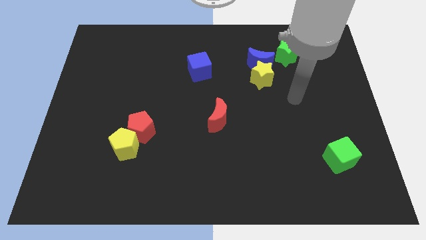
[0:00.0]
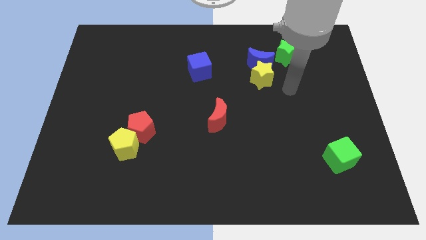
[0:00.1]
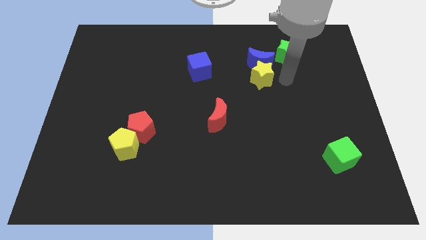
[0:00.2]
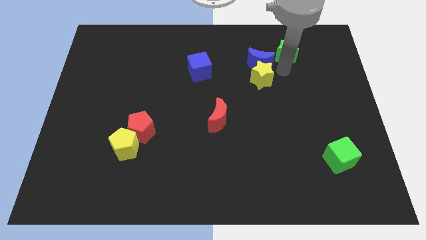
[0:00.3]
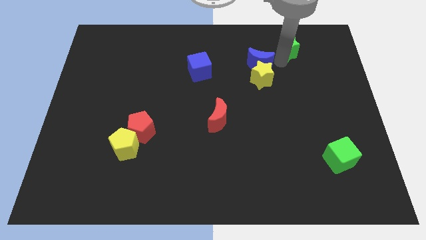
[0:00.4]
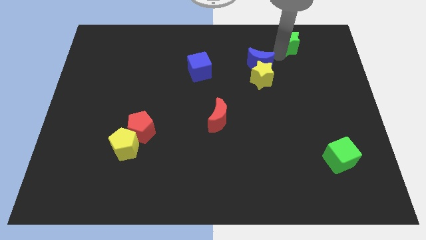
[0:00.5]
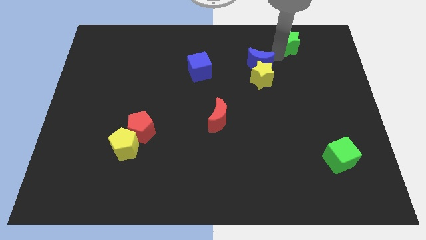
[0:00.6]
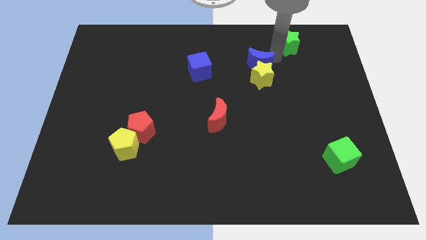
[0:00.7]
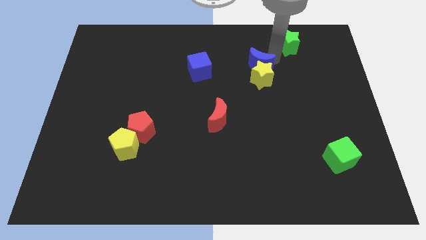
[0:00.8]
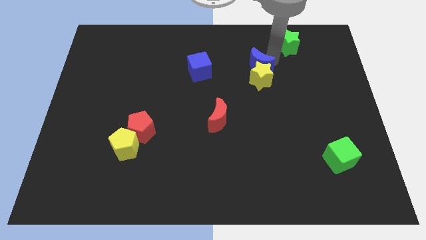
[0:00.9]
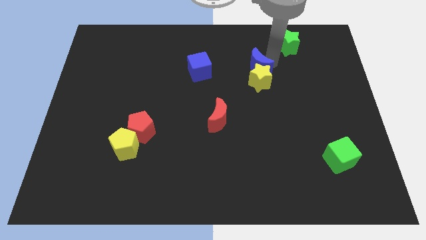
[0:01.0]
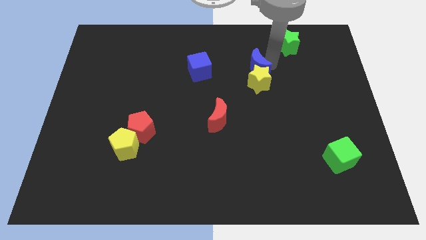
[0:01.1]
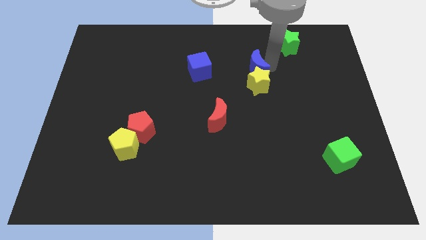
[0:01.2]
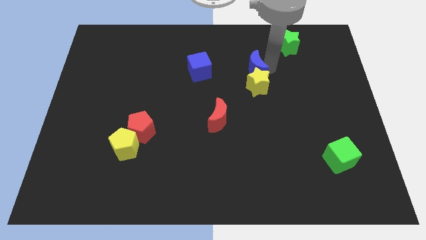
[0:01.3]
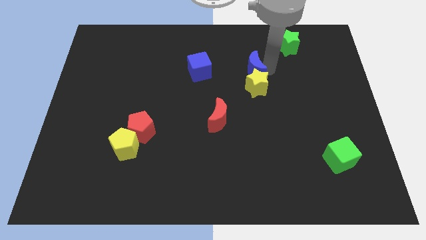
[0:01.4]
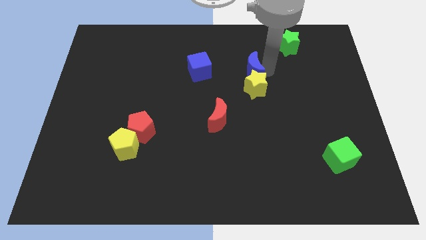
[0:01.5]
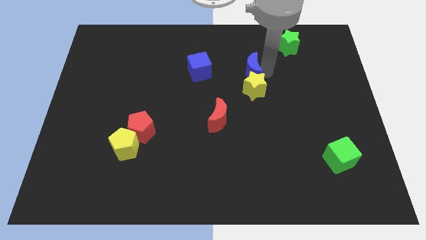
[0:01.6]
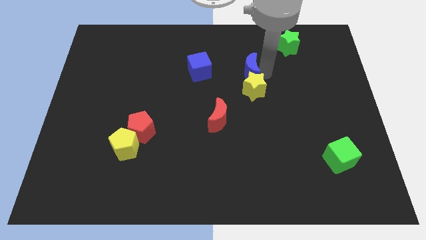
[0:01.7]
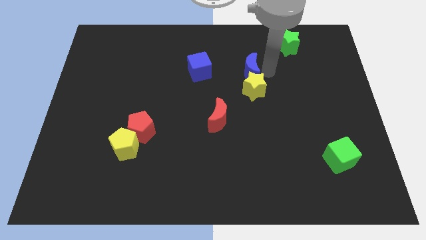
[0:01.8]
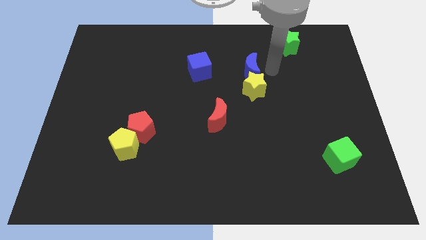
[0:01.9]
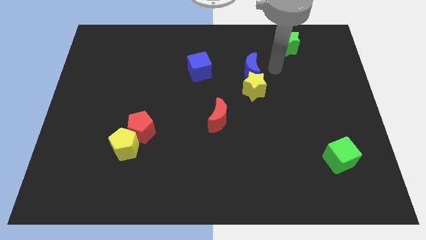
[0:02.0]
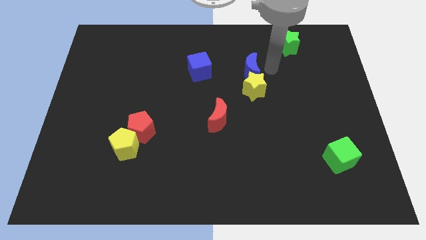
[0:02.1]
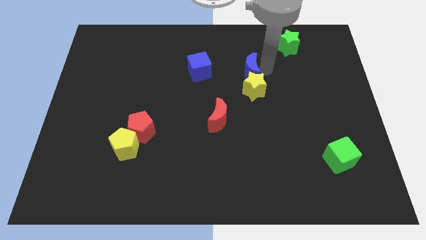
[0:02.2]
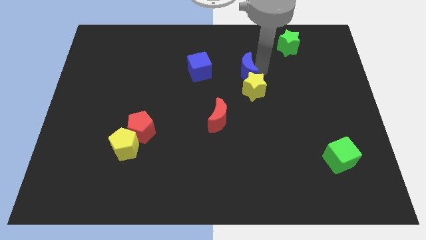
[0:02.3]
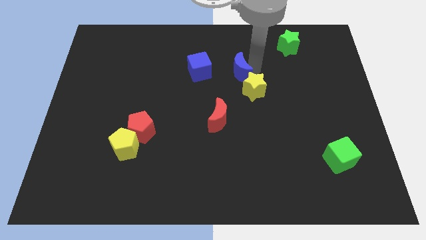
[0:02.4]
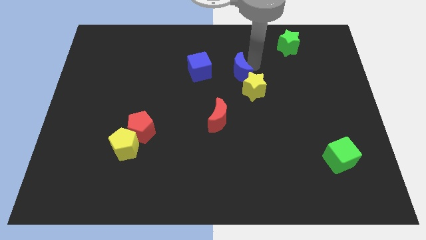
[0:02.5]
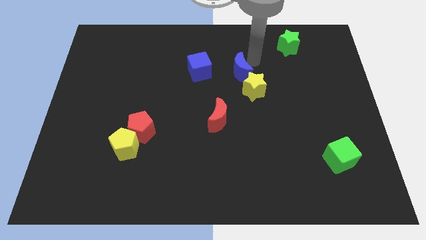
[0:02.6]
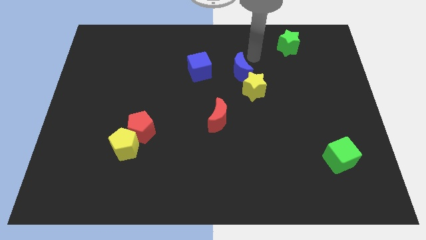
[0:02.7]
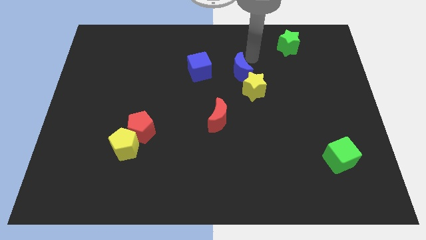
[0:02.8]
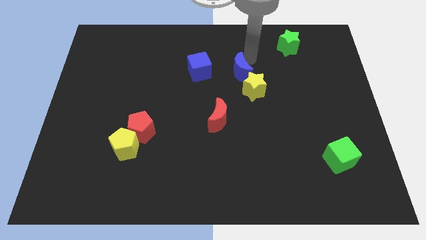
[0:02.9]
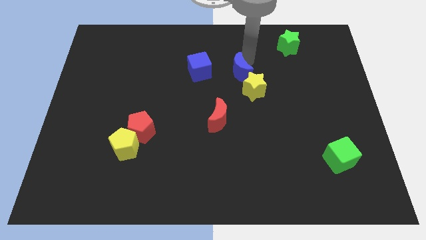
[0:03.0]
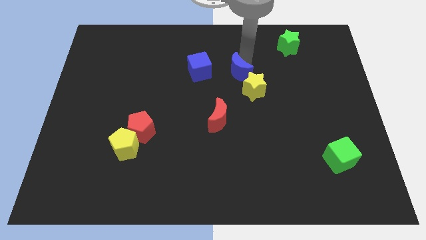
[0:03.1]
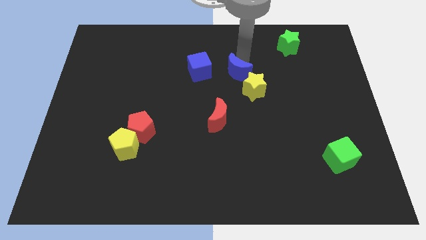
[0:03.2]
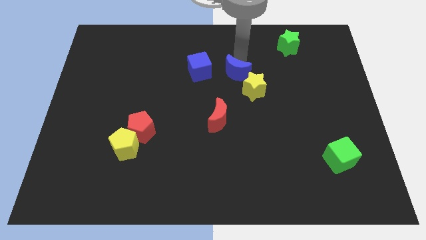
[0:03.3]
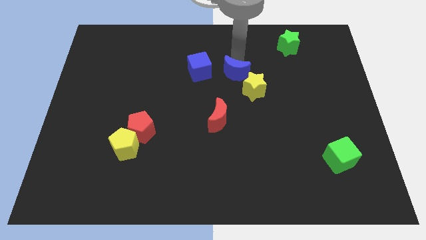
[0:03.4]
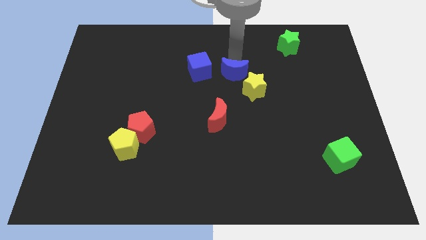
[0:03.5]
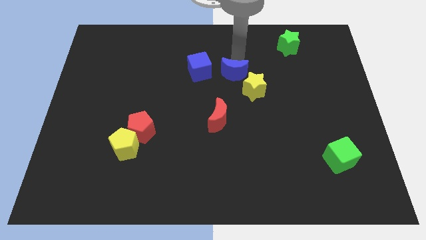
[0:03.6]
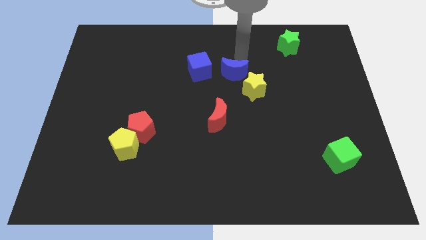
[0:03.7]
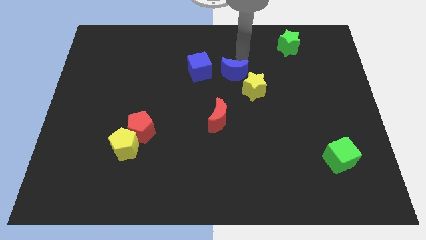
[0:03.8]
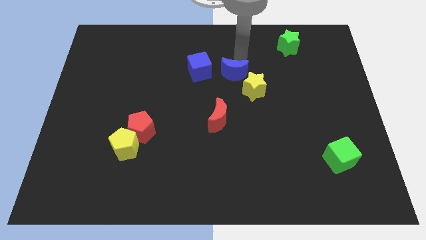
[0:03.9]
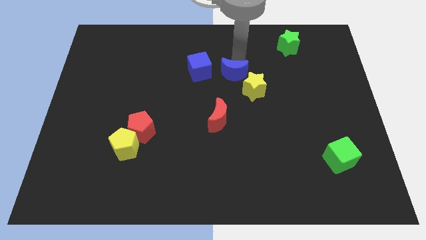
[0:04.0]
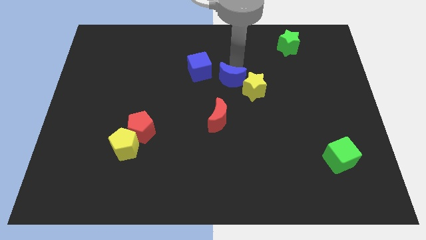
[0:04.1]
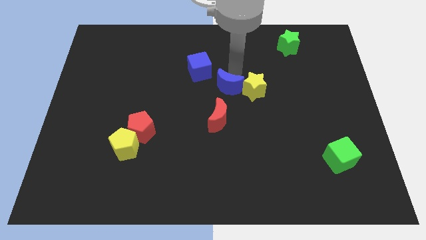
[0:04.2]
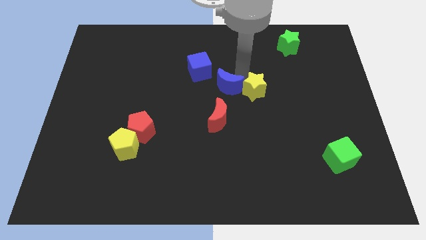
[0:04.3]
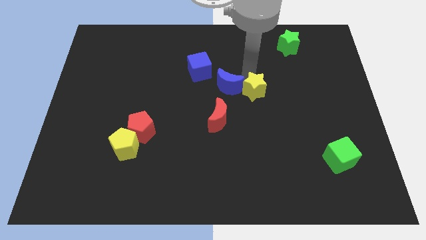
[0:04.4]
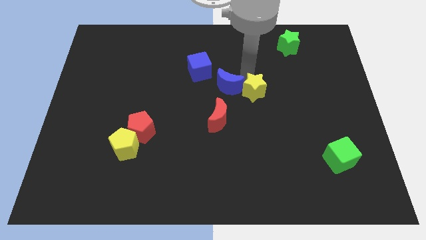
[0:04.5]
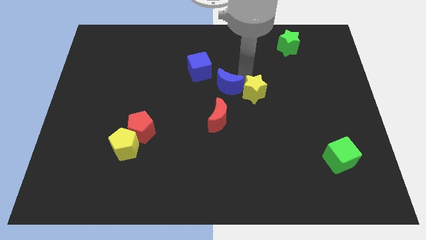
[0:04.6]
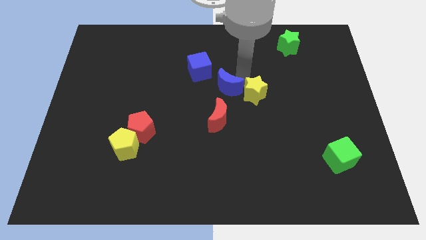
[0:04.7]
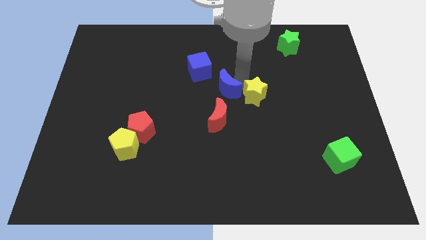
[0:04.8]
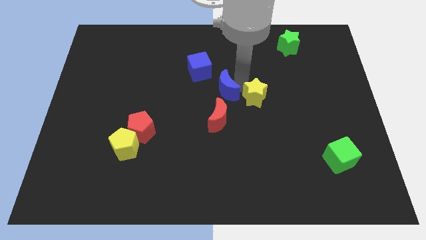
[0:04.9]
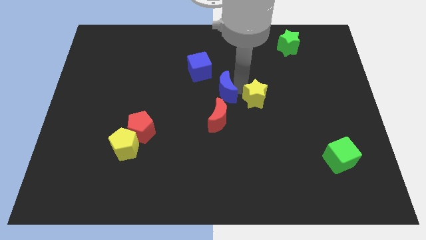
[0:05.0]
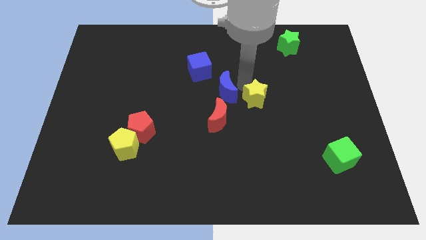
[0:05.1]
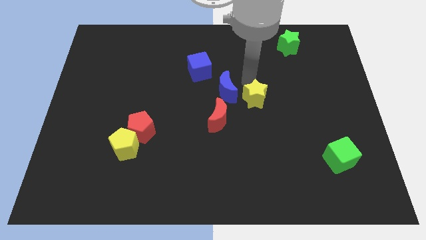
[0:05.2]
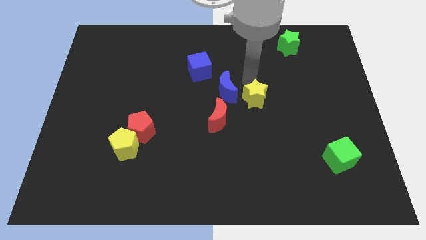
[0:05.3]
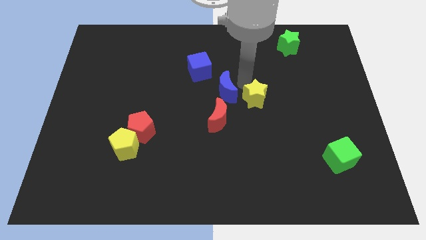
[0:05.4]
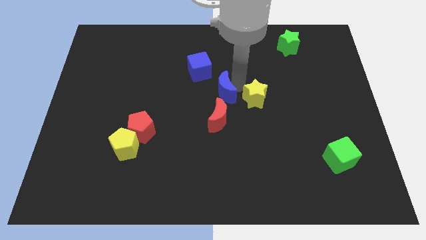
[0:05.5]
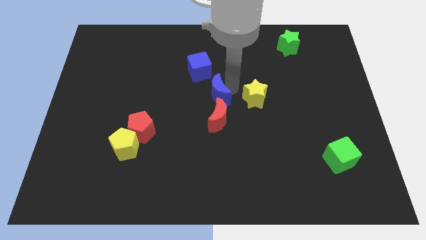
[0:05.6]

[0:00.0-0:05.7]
put the blue moon to the bottom of the blue cube

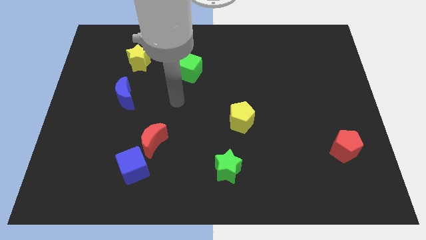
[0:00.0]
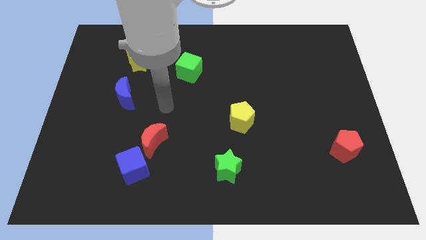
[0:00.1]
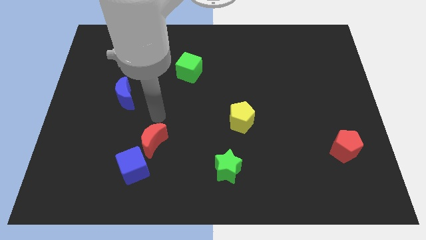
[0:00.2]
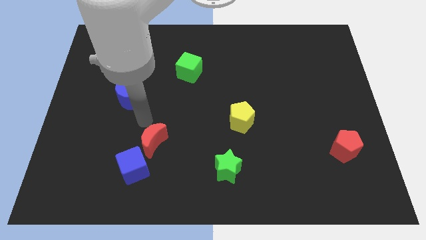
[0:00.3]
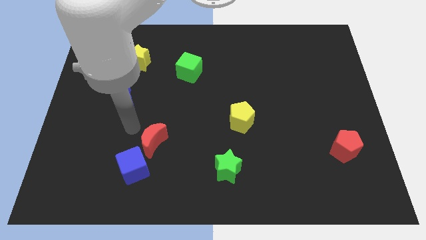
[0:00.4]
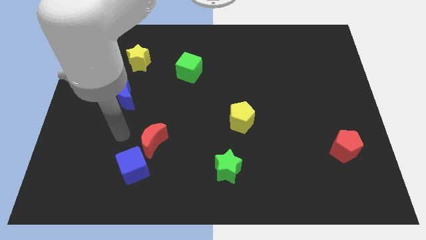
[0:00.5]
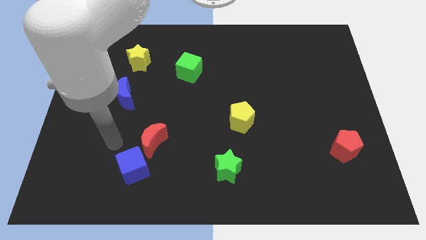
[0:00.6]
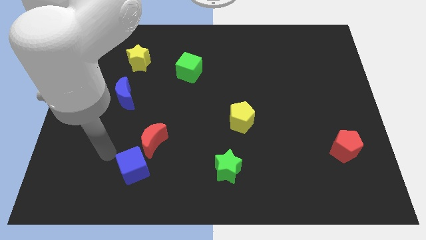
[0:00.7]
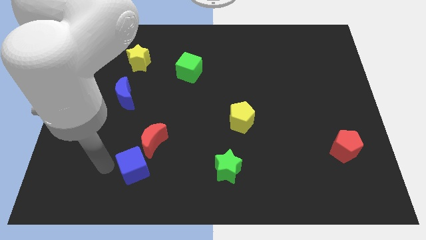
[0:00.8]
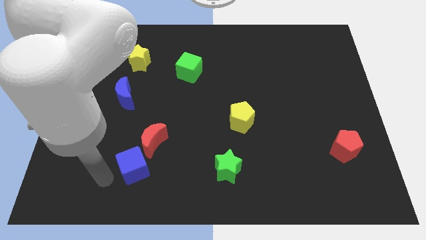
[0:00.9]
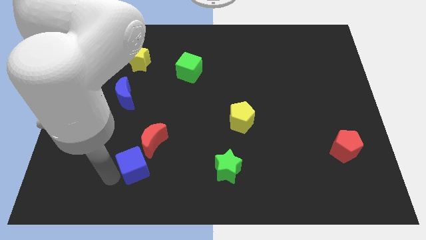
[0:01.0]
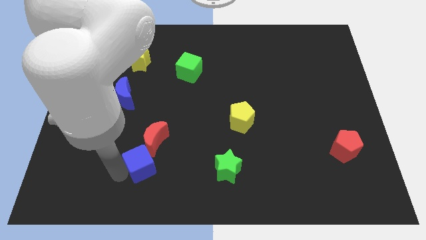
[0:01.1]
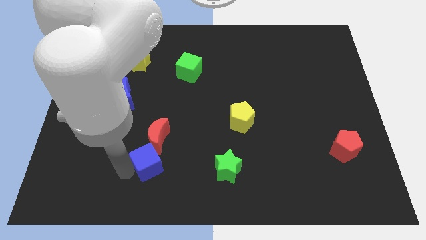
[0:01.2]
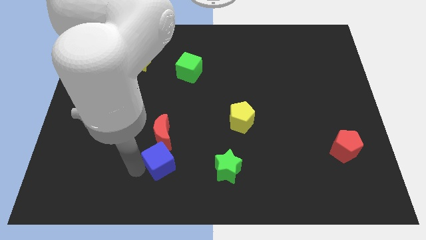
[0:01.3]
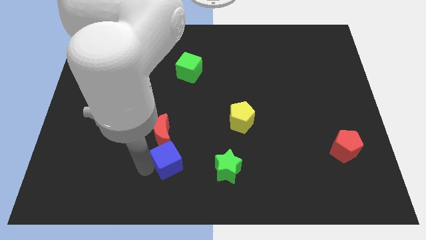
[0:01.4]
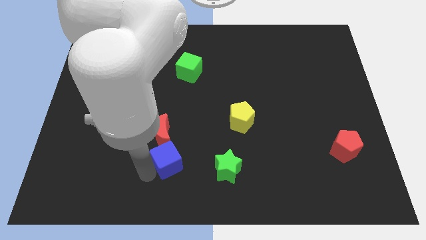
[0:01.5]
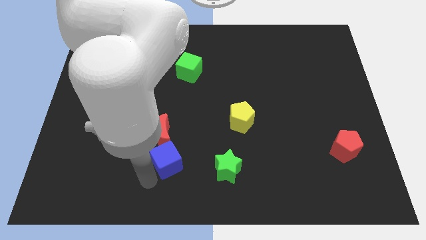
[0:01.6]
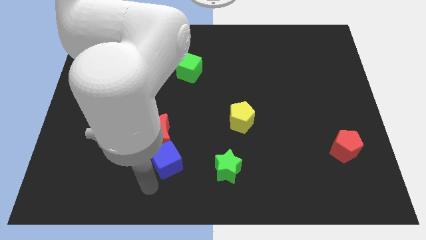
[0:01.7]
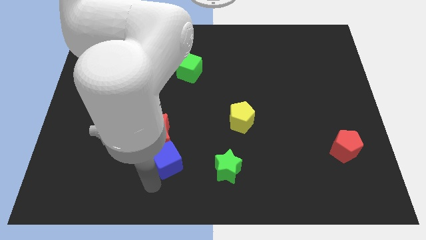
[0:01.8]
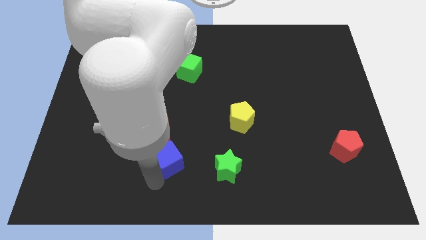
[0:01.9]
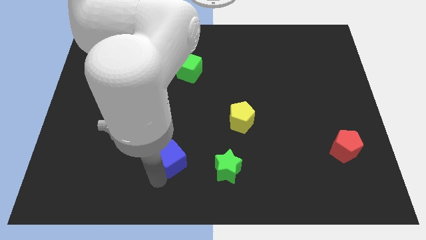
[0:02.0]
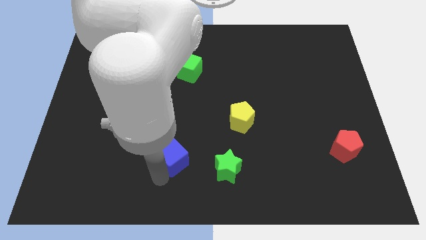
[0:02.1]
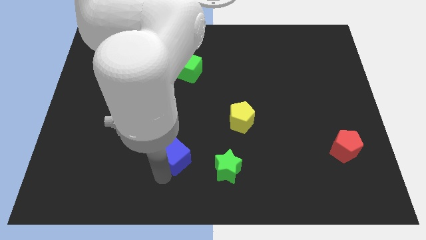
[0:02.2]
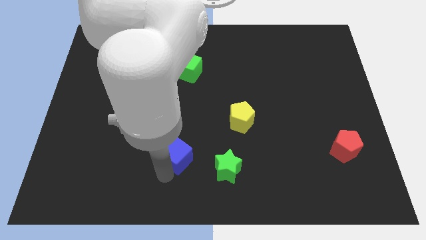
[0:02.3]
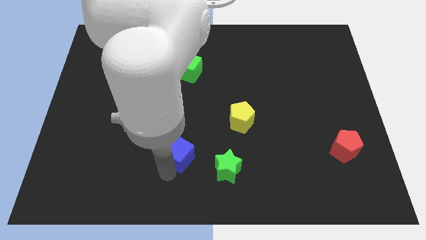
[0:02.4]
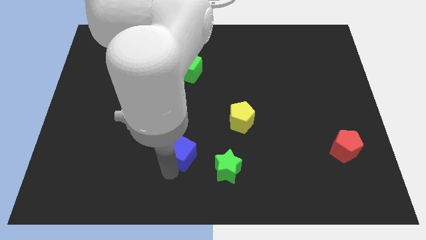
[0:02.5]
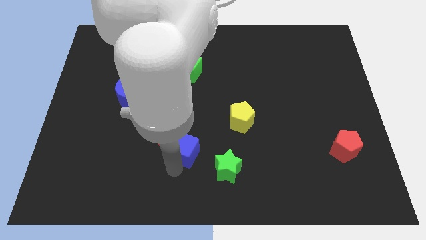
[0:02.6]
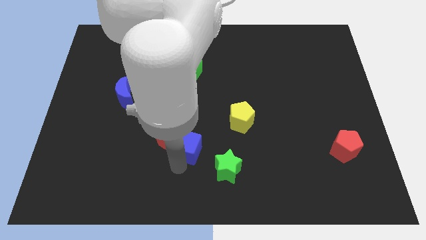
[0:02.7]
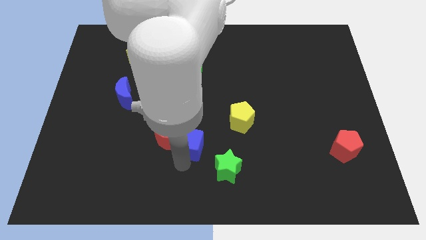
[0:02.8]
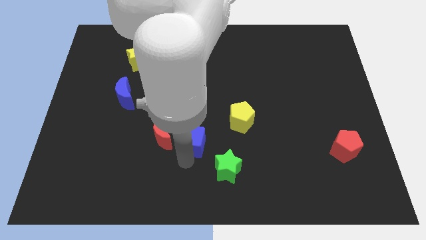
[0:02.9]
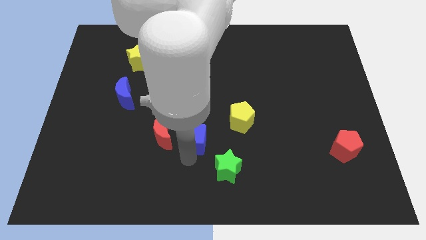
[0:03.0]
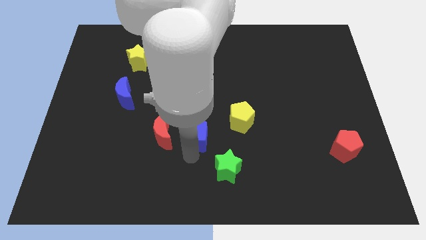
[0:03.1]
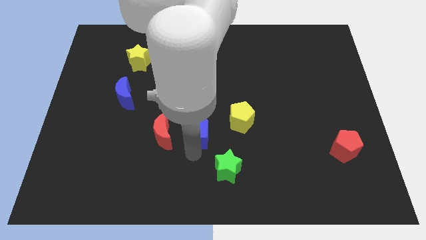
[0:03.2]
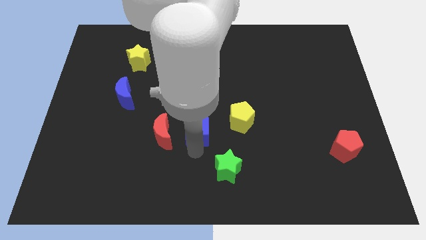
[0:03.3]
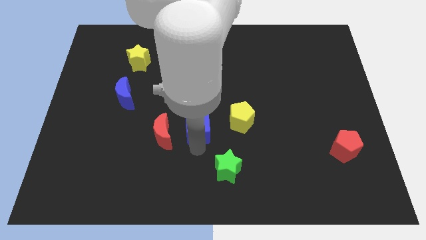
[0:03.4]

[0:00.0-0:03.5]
move the blue cube to the top right of the red moon
